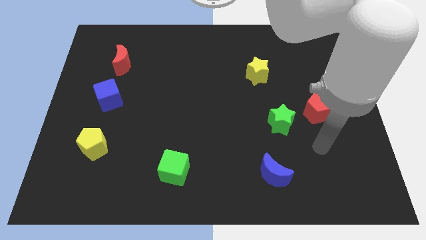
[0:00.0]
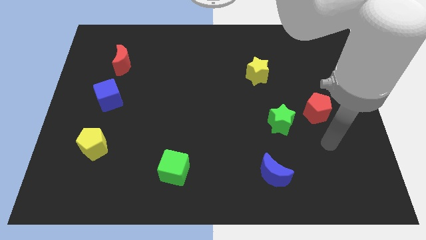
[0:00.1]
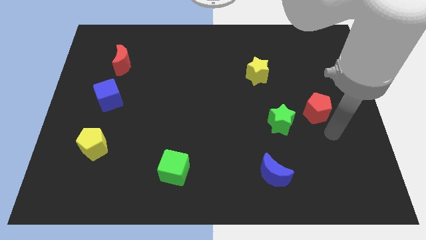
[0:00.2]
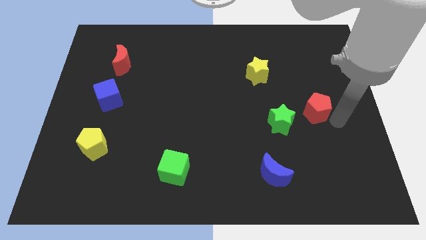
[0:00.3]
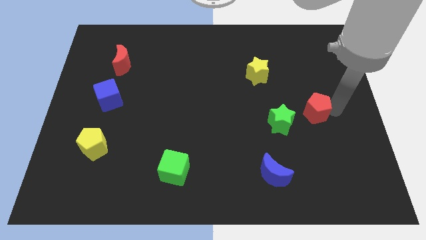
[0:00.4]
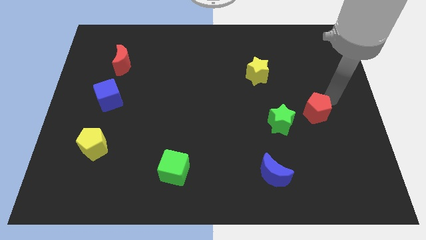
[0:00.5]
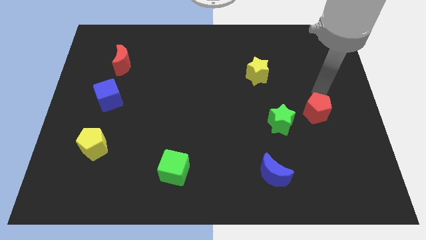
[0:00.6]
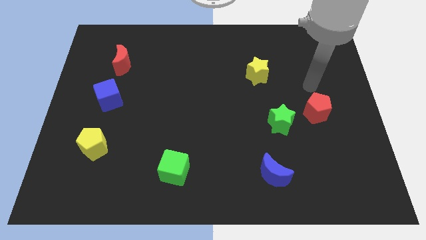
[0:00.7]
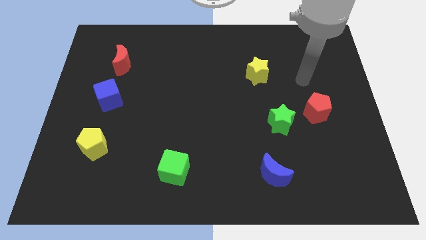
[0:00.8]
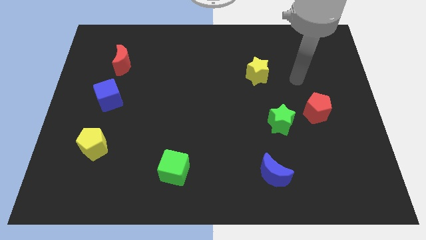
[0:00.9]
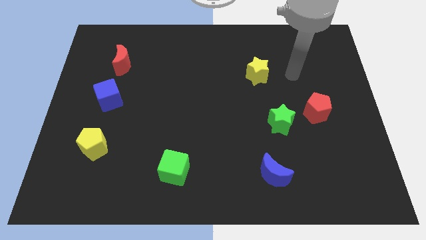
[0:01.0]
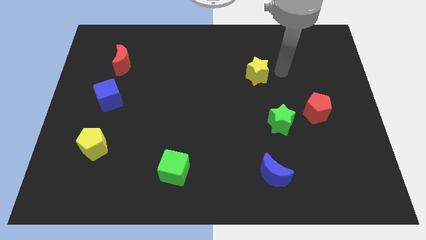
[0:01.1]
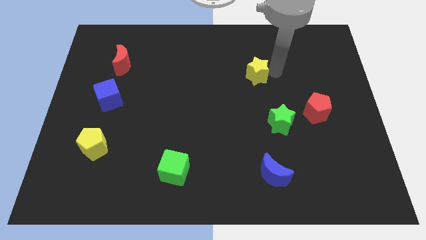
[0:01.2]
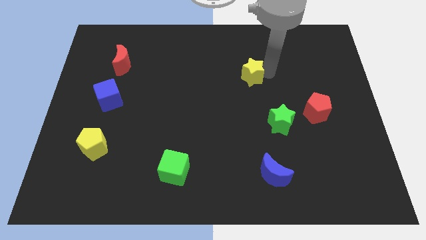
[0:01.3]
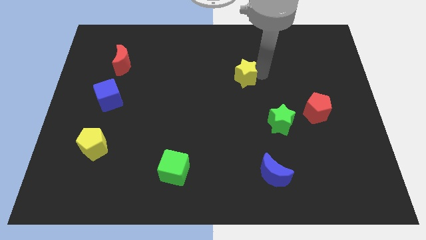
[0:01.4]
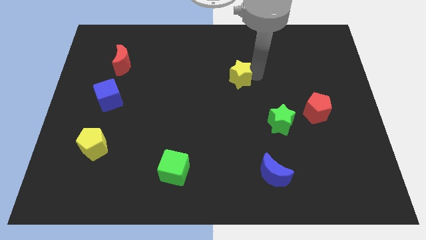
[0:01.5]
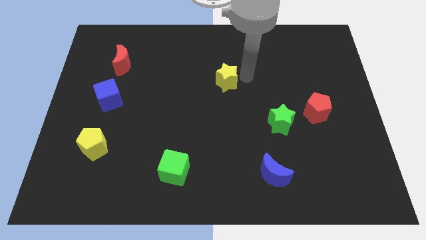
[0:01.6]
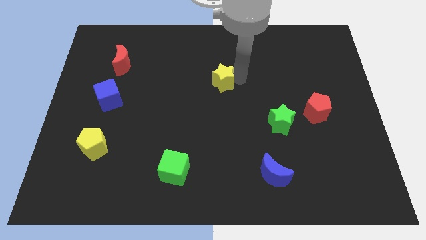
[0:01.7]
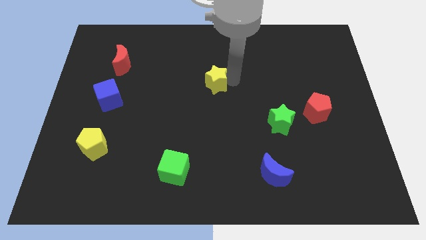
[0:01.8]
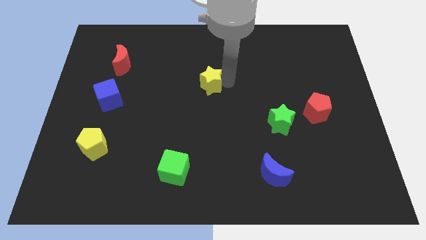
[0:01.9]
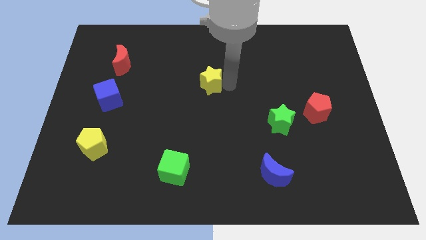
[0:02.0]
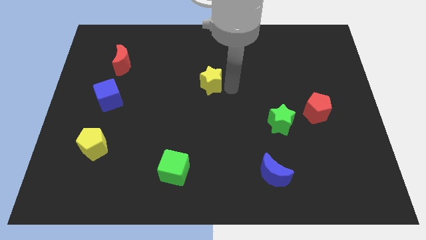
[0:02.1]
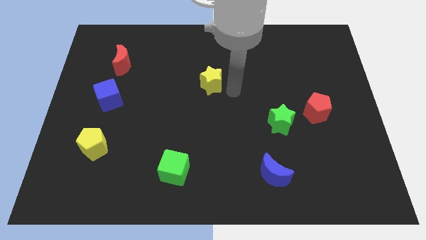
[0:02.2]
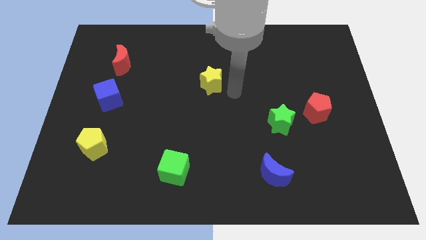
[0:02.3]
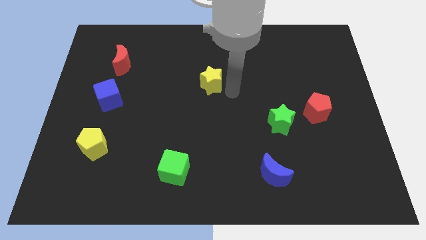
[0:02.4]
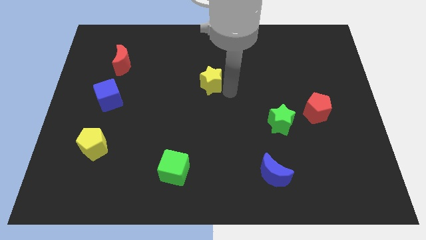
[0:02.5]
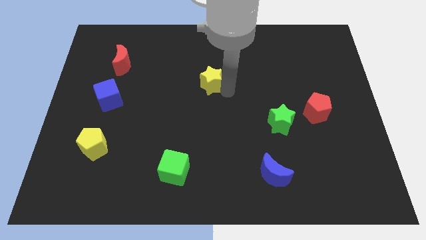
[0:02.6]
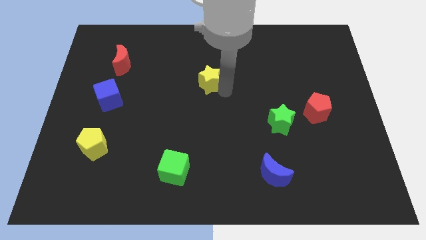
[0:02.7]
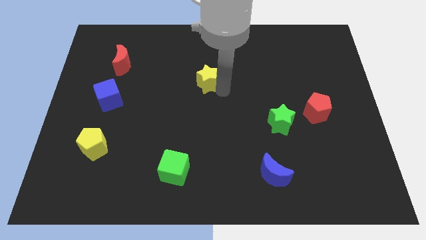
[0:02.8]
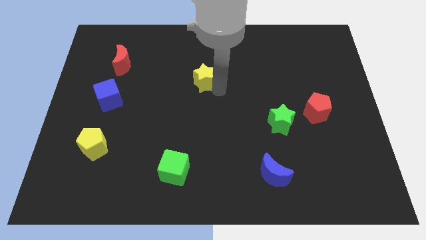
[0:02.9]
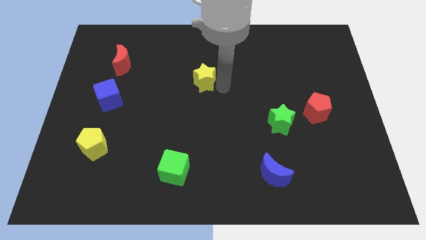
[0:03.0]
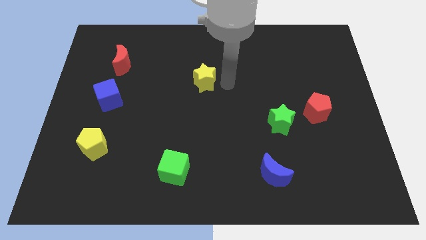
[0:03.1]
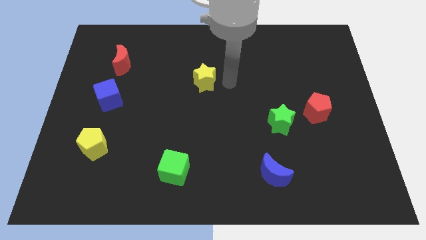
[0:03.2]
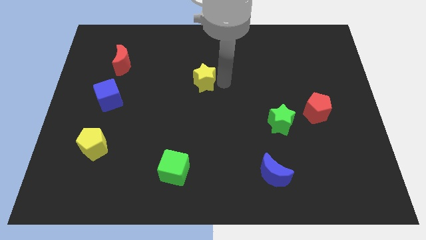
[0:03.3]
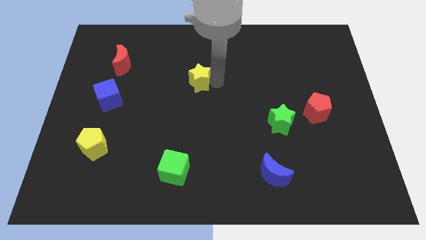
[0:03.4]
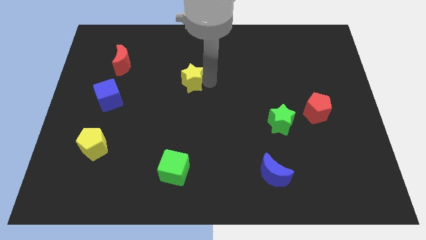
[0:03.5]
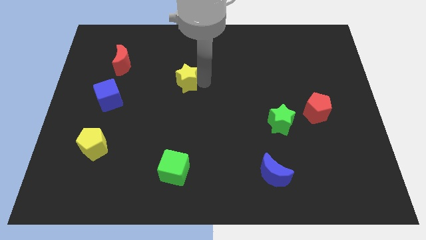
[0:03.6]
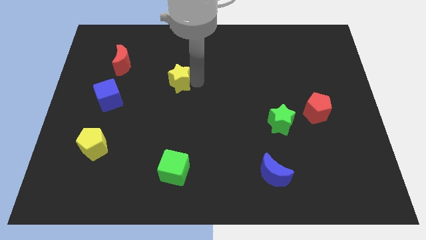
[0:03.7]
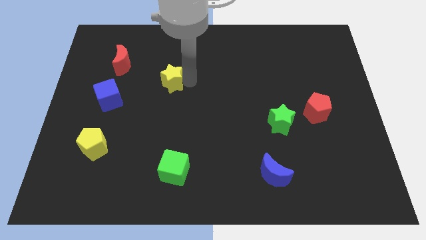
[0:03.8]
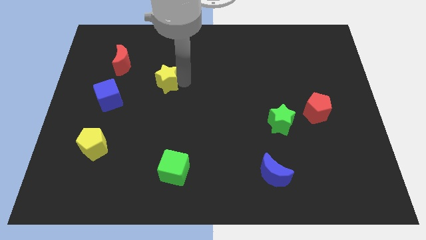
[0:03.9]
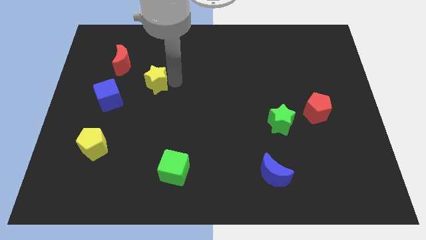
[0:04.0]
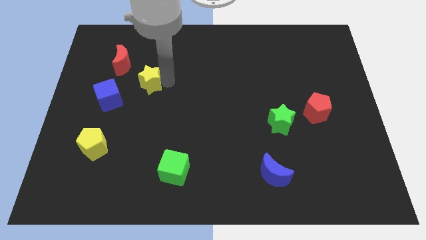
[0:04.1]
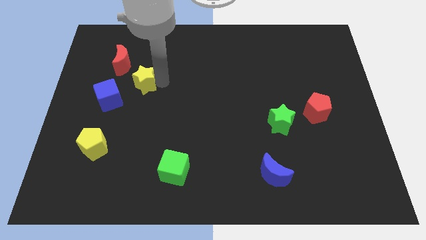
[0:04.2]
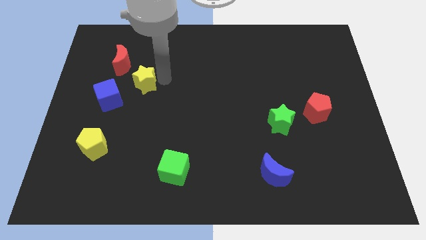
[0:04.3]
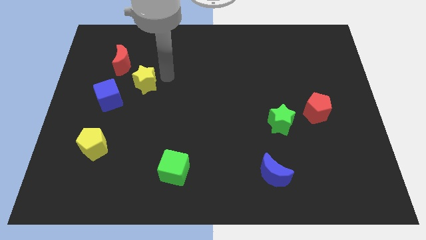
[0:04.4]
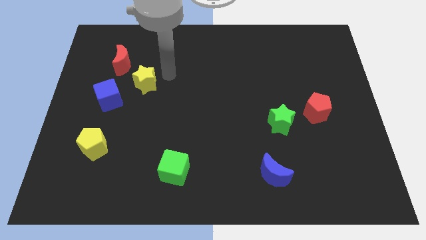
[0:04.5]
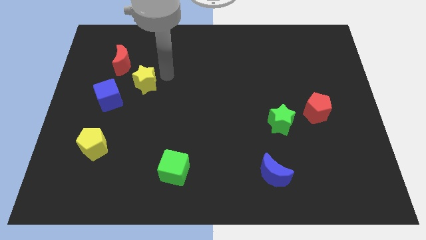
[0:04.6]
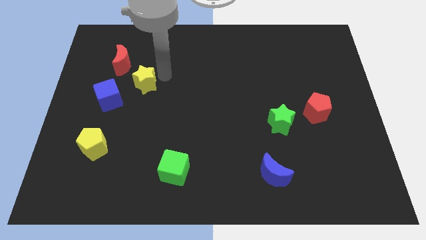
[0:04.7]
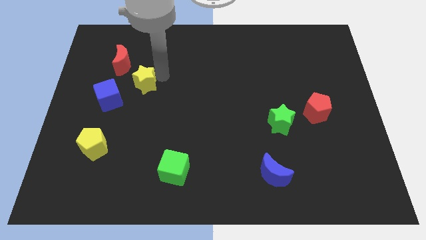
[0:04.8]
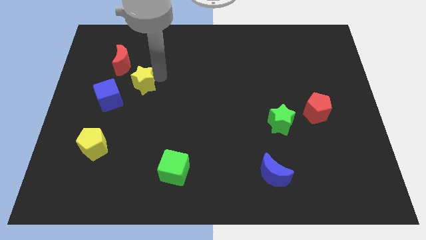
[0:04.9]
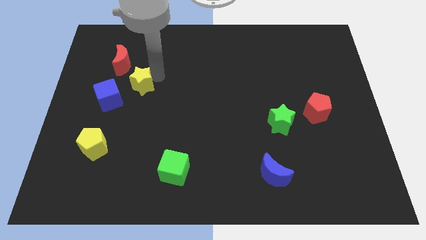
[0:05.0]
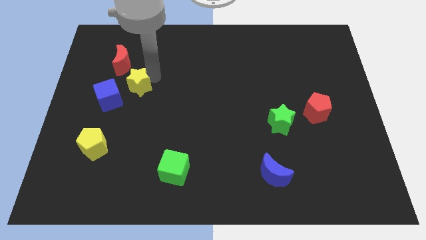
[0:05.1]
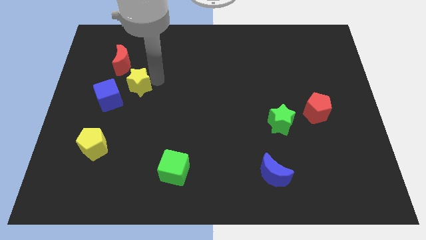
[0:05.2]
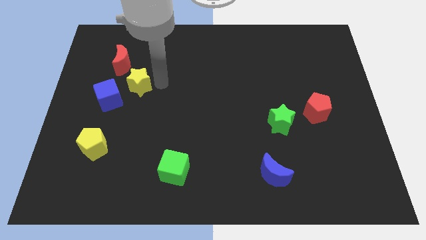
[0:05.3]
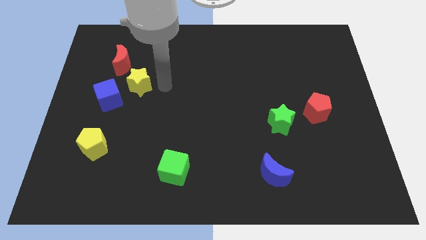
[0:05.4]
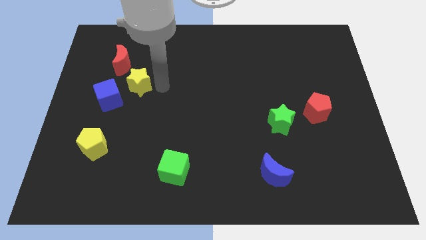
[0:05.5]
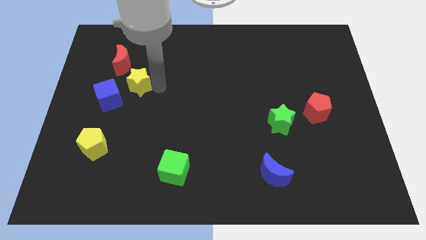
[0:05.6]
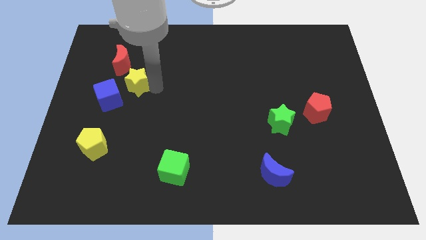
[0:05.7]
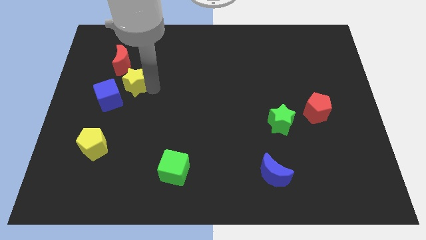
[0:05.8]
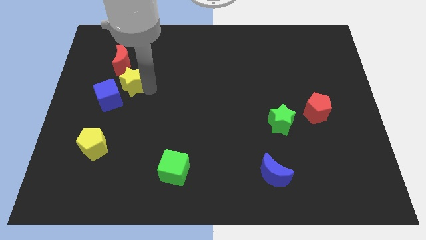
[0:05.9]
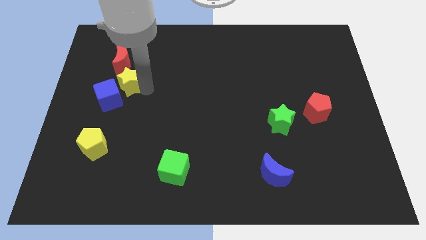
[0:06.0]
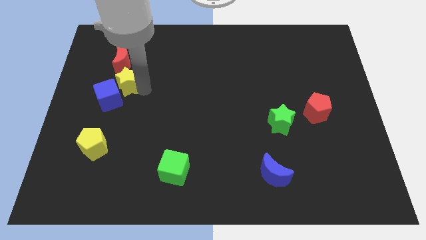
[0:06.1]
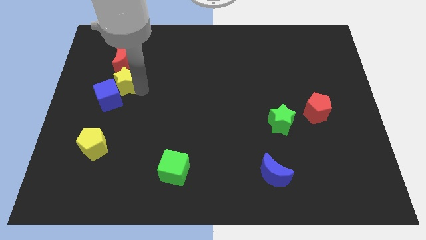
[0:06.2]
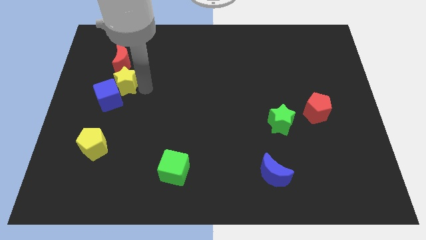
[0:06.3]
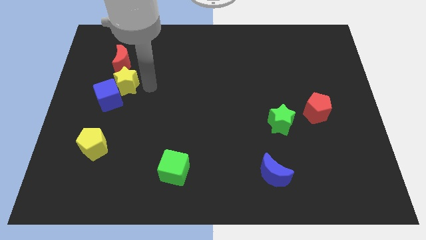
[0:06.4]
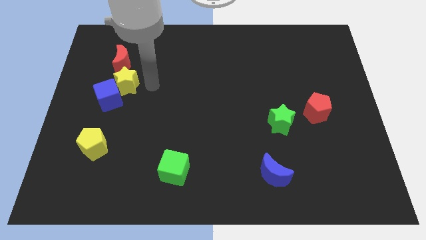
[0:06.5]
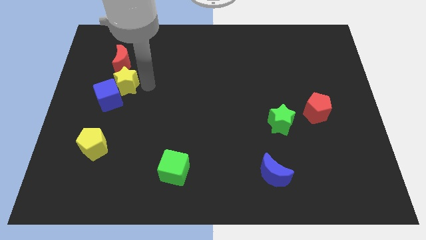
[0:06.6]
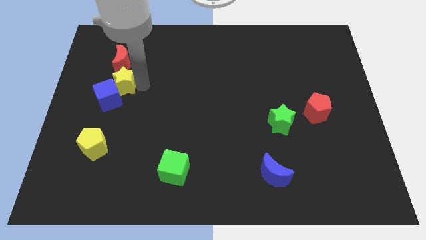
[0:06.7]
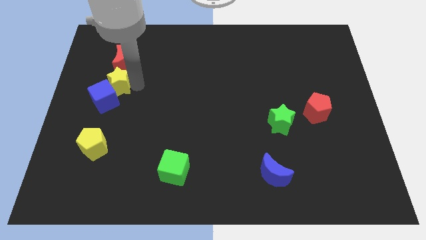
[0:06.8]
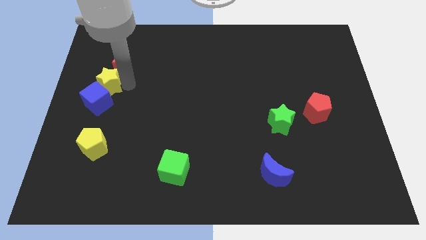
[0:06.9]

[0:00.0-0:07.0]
push the yellow star to the left side

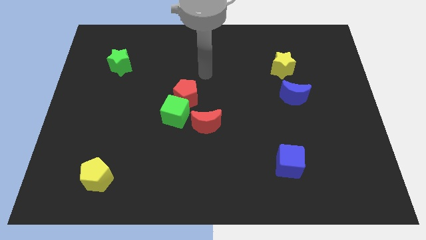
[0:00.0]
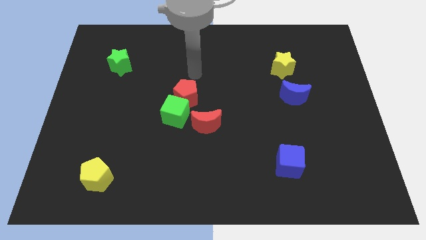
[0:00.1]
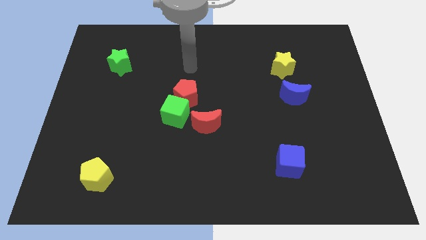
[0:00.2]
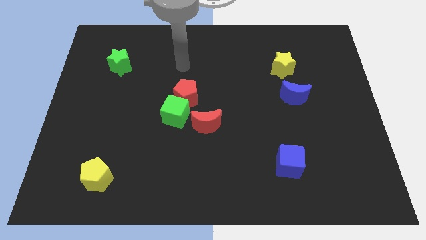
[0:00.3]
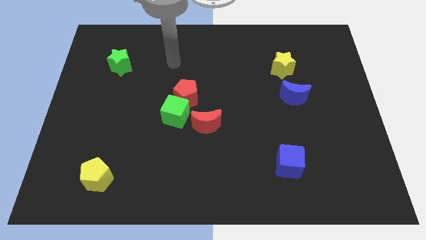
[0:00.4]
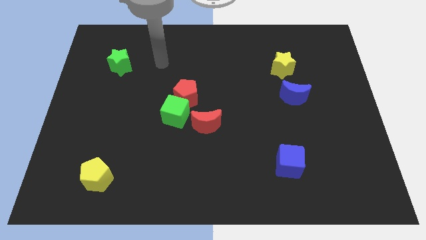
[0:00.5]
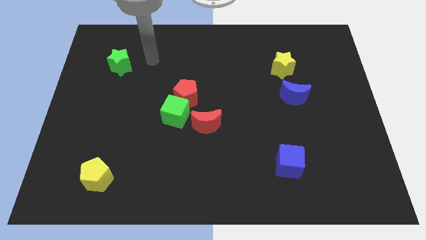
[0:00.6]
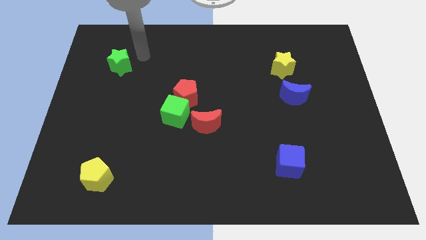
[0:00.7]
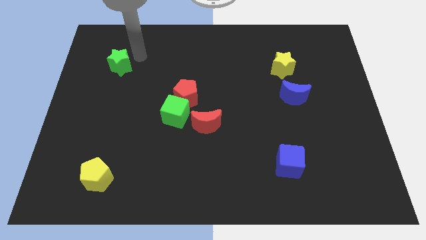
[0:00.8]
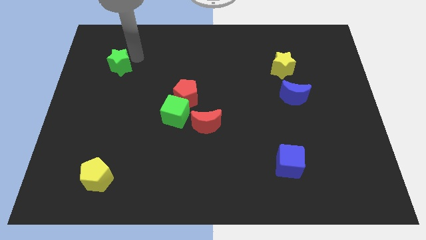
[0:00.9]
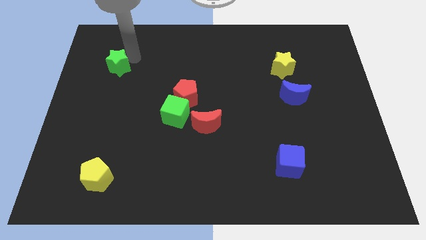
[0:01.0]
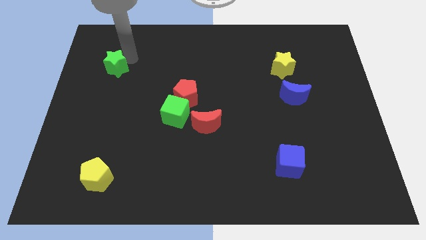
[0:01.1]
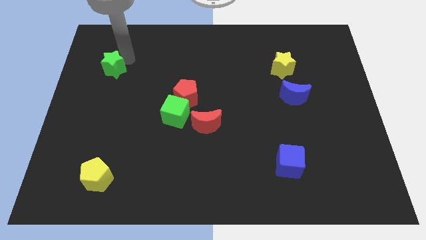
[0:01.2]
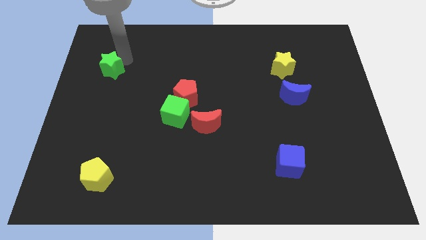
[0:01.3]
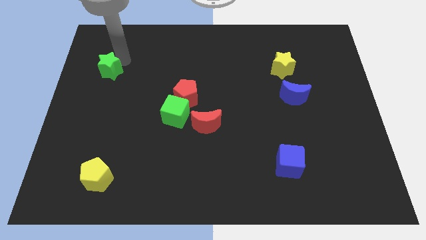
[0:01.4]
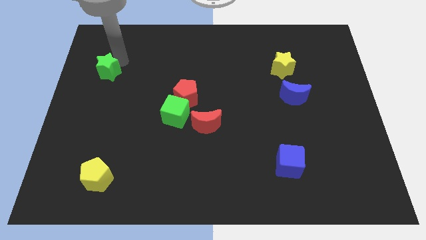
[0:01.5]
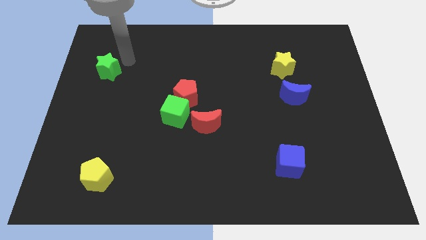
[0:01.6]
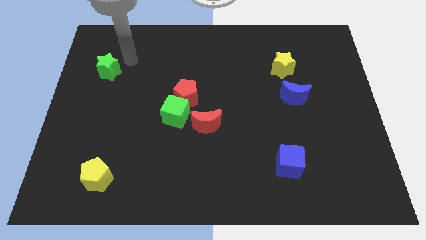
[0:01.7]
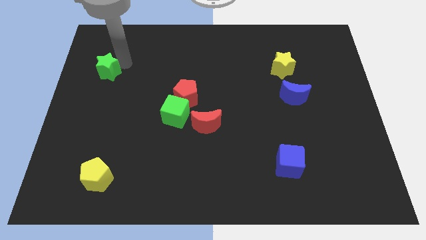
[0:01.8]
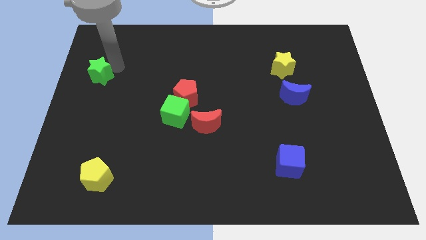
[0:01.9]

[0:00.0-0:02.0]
slide the green star to the left side of the board
